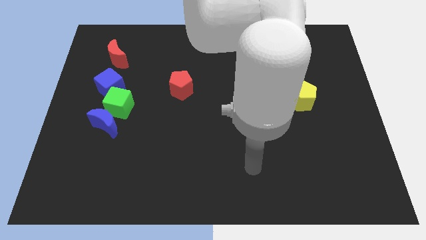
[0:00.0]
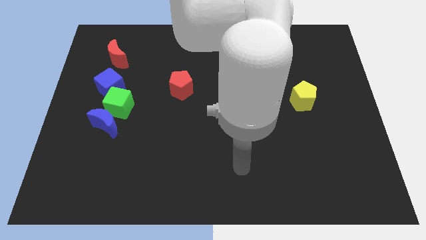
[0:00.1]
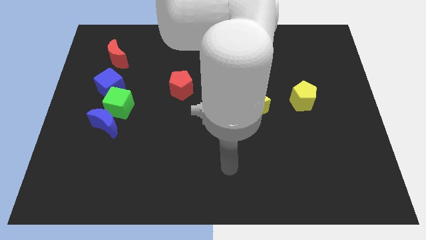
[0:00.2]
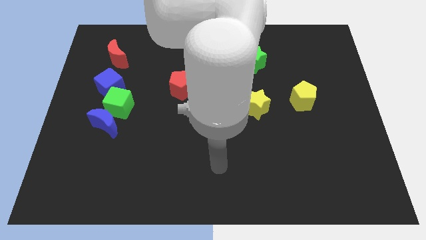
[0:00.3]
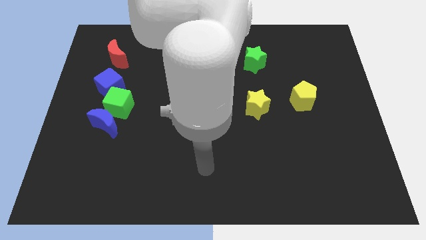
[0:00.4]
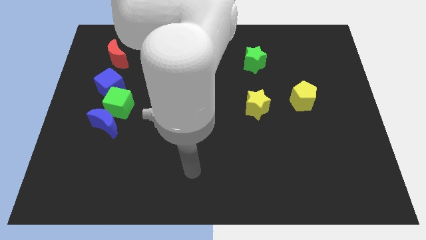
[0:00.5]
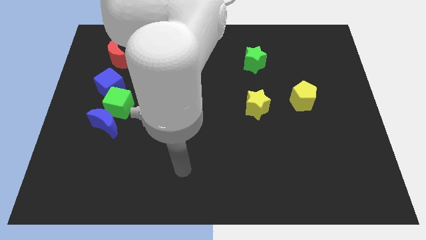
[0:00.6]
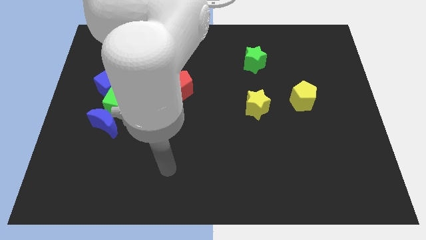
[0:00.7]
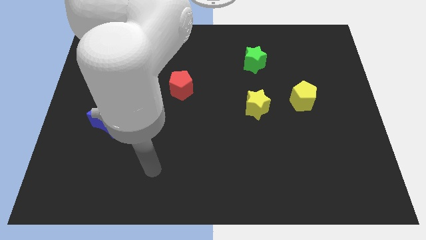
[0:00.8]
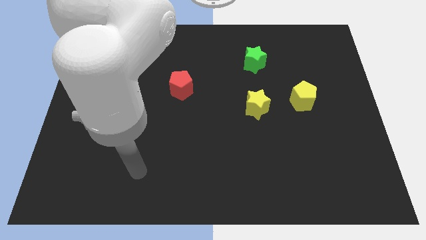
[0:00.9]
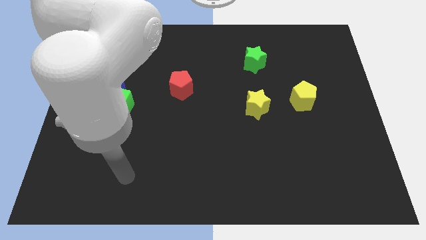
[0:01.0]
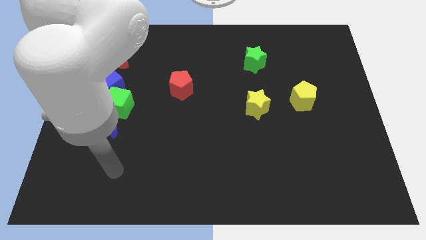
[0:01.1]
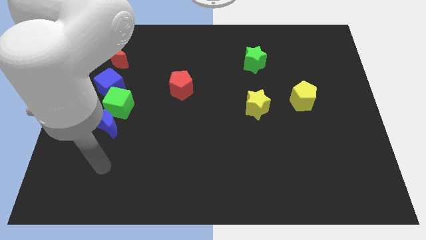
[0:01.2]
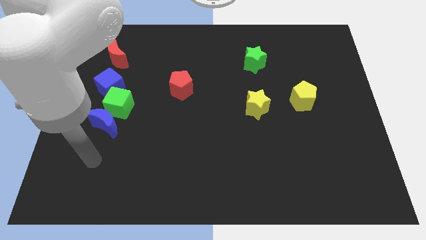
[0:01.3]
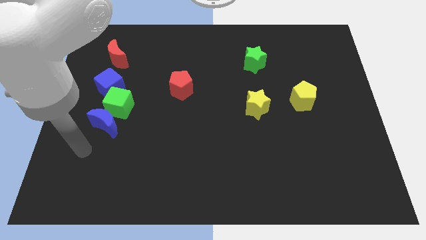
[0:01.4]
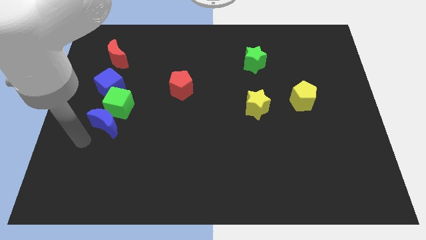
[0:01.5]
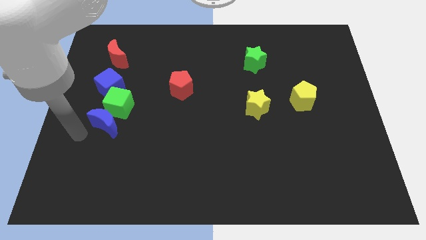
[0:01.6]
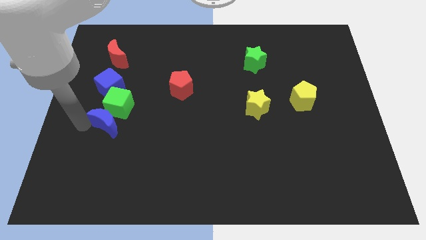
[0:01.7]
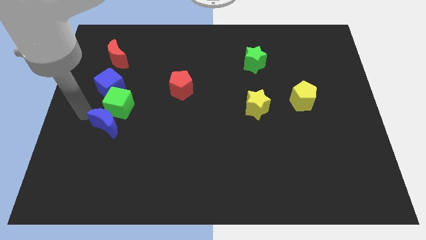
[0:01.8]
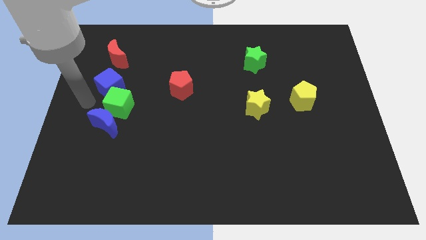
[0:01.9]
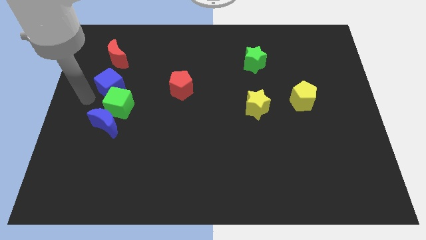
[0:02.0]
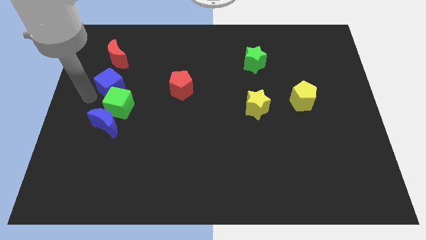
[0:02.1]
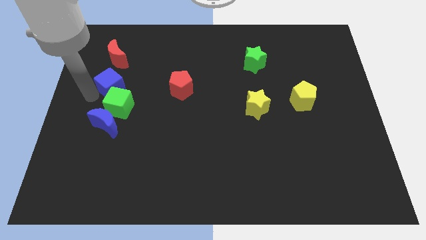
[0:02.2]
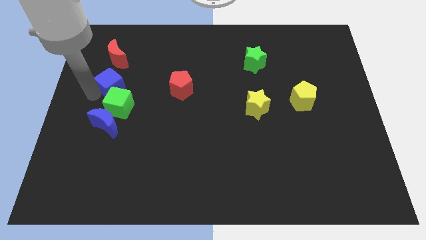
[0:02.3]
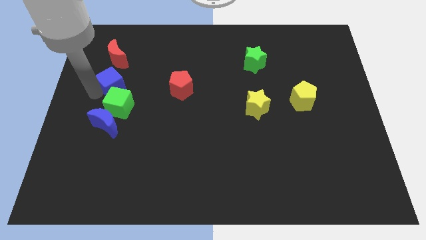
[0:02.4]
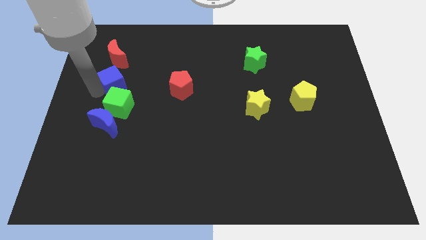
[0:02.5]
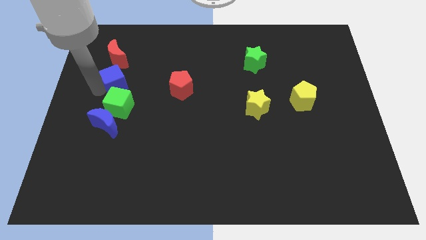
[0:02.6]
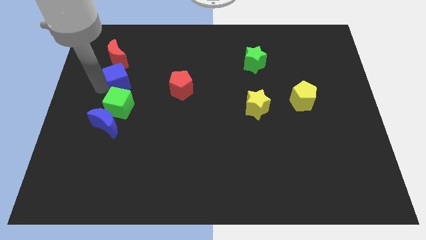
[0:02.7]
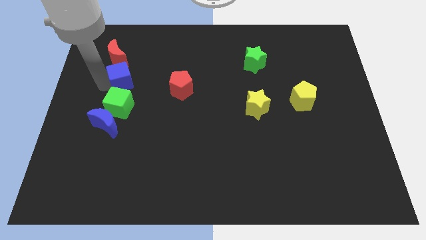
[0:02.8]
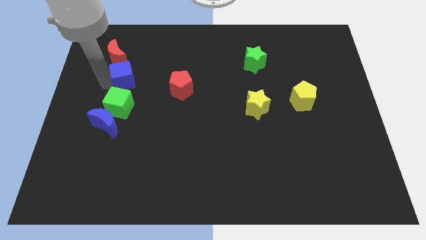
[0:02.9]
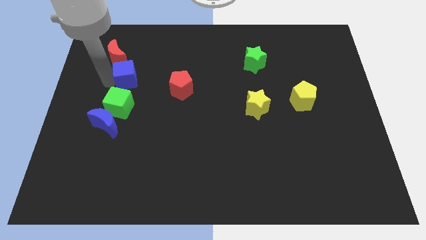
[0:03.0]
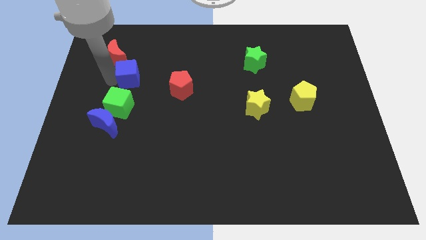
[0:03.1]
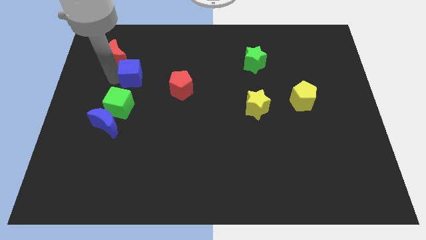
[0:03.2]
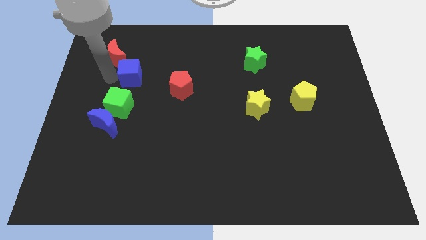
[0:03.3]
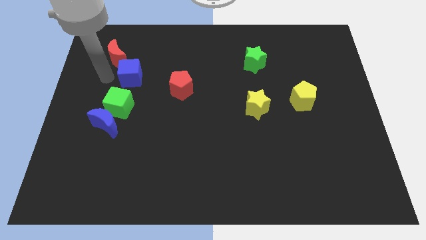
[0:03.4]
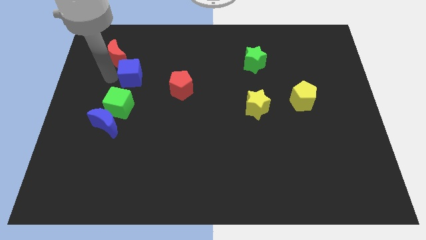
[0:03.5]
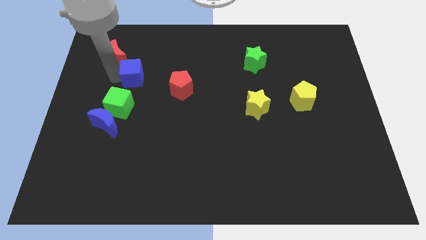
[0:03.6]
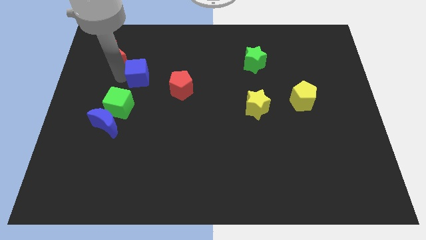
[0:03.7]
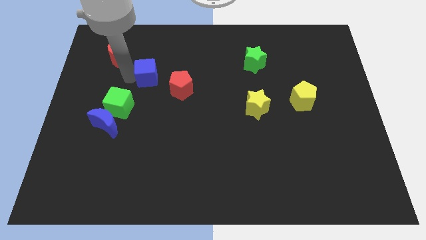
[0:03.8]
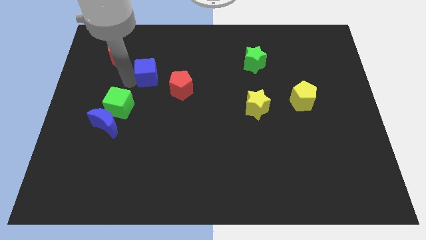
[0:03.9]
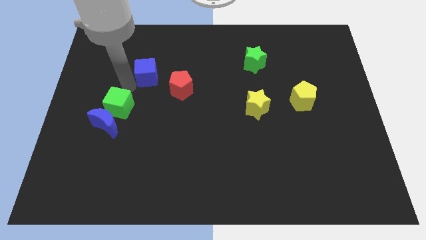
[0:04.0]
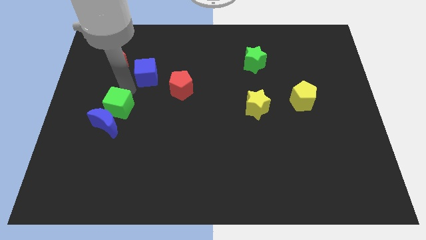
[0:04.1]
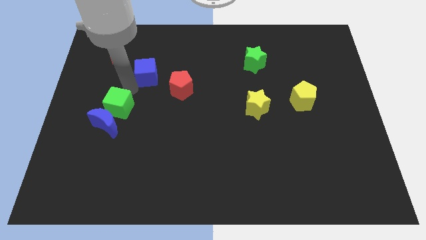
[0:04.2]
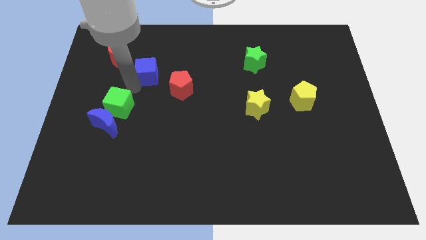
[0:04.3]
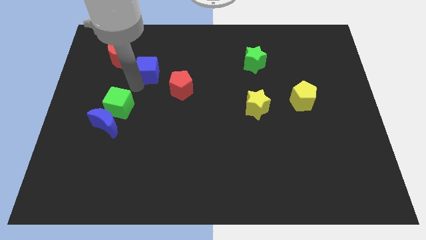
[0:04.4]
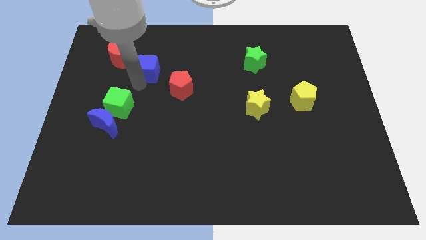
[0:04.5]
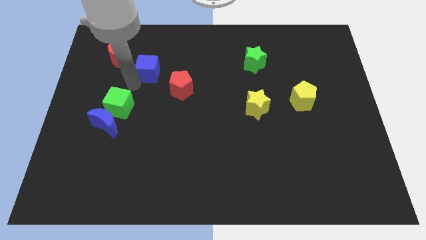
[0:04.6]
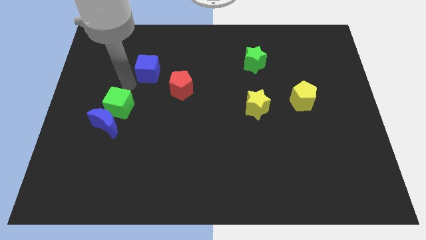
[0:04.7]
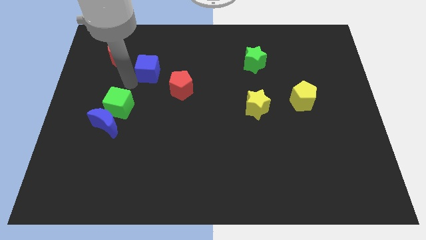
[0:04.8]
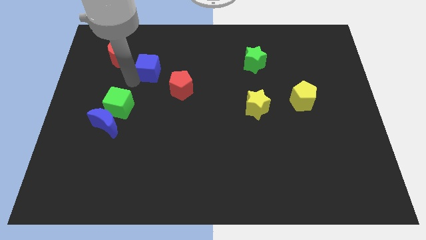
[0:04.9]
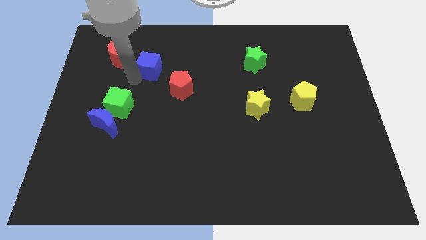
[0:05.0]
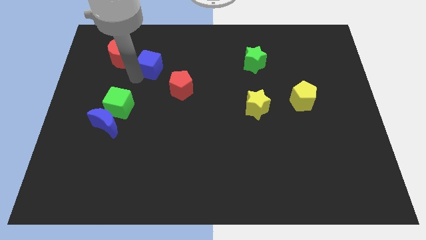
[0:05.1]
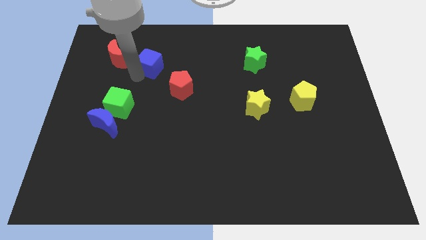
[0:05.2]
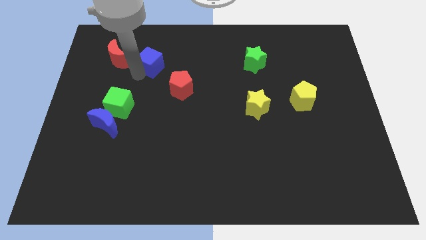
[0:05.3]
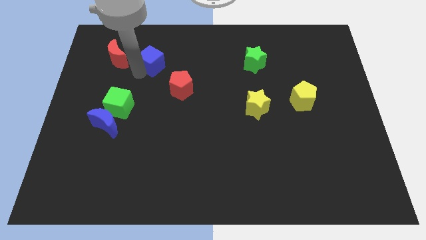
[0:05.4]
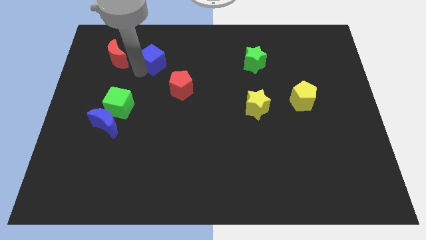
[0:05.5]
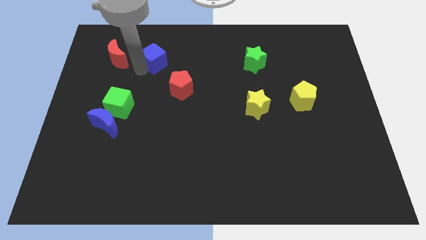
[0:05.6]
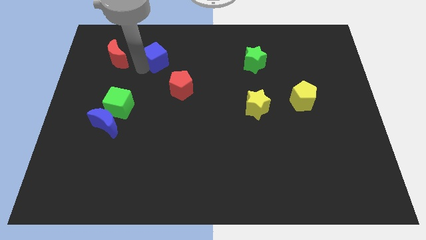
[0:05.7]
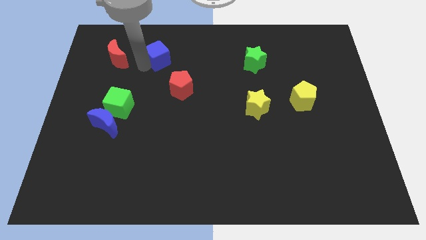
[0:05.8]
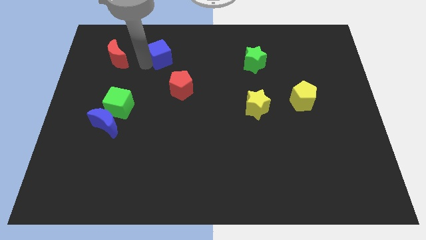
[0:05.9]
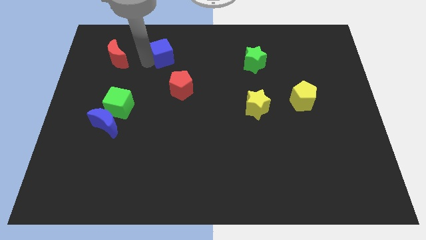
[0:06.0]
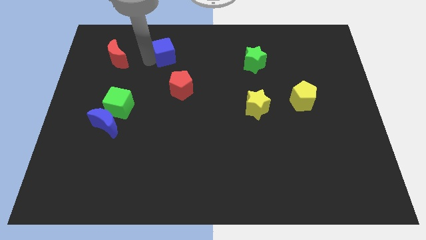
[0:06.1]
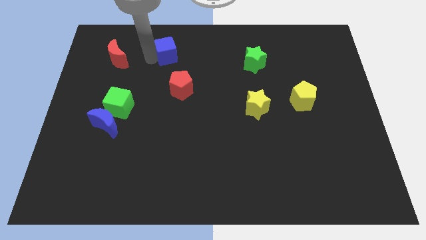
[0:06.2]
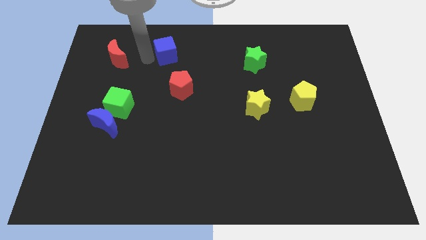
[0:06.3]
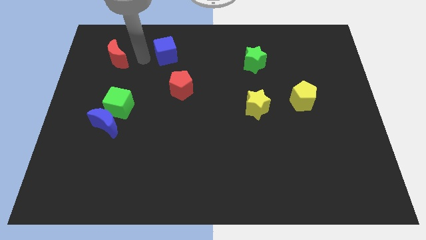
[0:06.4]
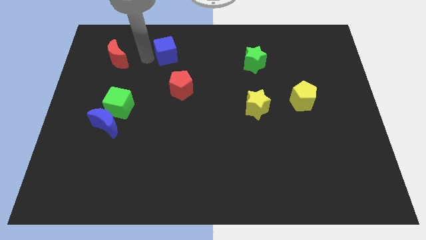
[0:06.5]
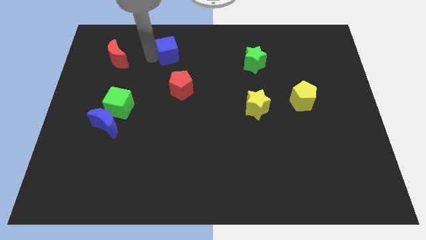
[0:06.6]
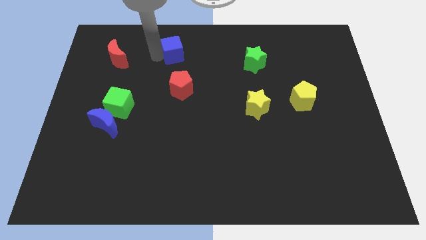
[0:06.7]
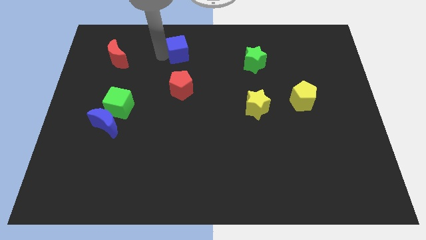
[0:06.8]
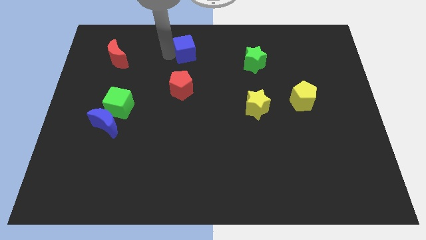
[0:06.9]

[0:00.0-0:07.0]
move the blue cube to the top side
